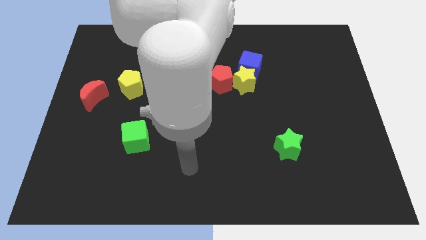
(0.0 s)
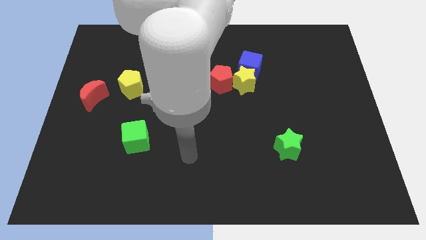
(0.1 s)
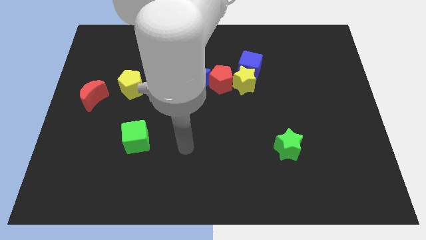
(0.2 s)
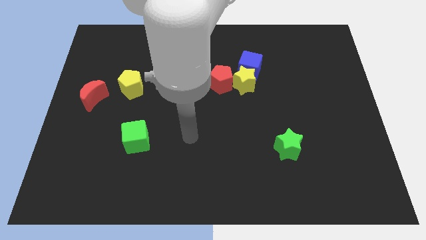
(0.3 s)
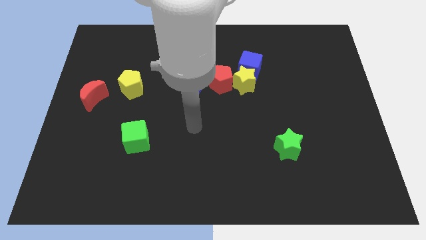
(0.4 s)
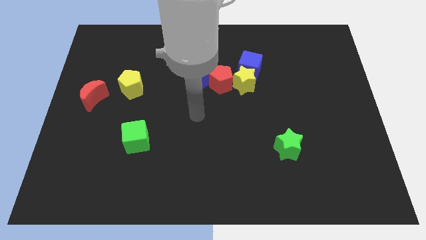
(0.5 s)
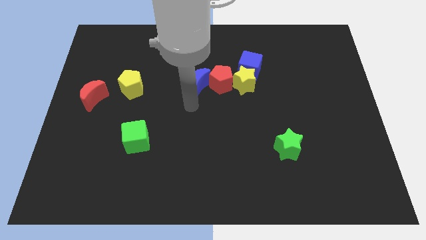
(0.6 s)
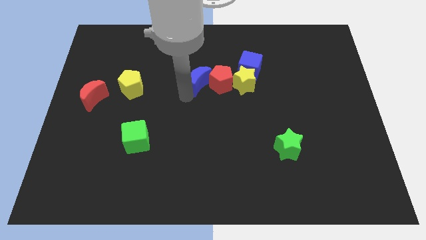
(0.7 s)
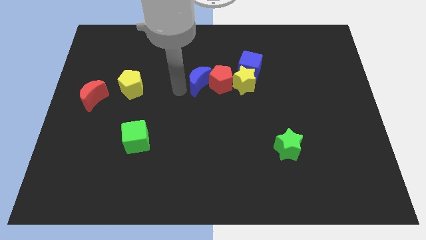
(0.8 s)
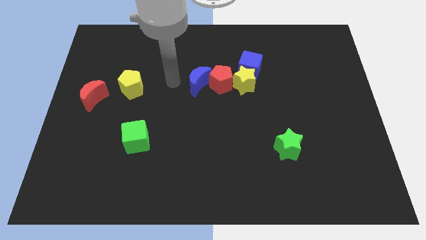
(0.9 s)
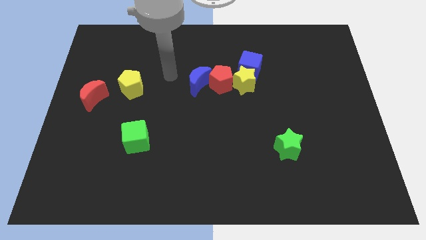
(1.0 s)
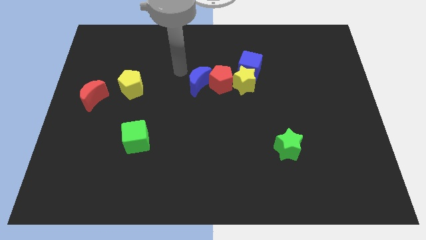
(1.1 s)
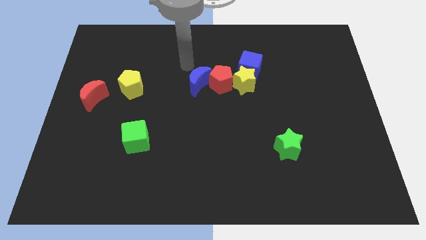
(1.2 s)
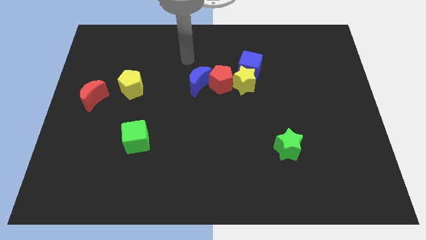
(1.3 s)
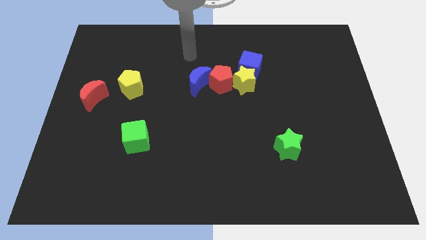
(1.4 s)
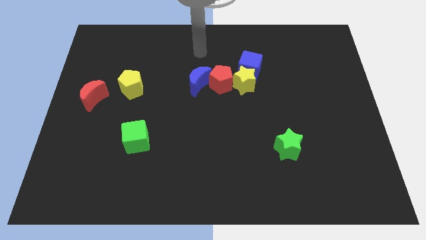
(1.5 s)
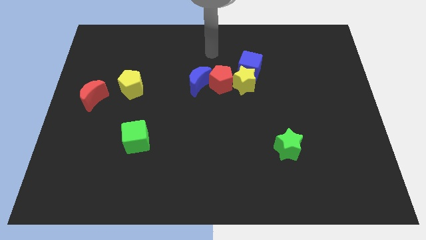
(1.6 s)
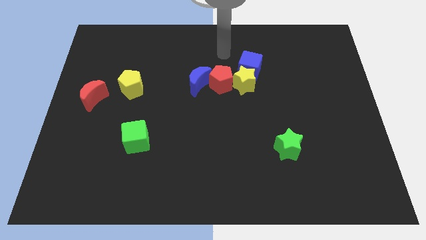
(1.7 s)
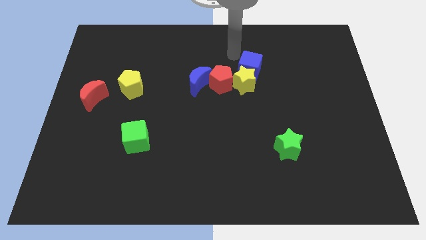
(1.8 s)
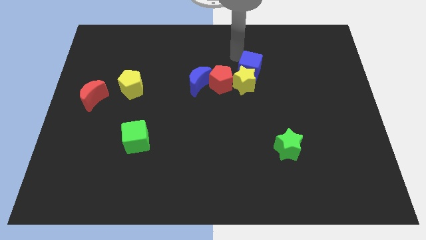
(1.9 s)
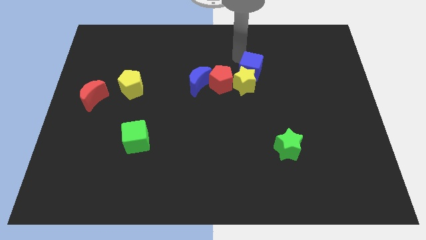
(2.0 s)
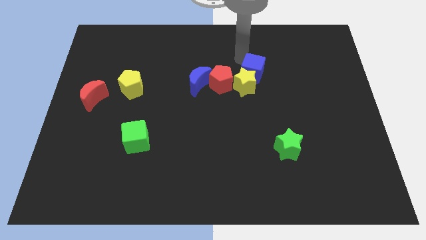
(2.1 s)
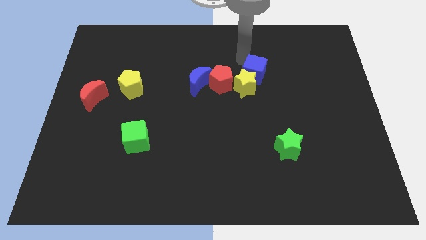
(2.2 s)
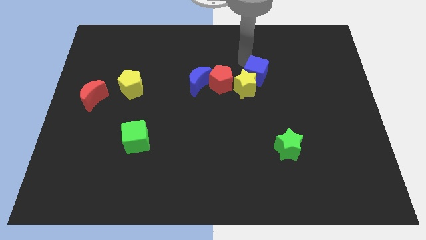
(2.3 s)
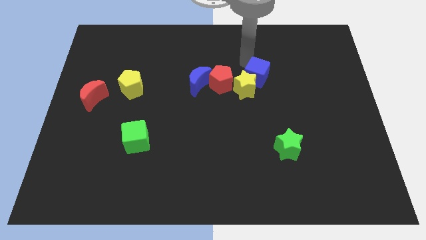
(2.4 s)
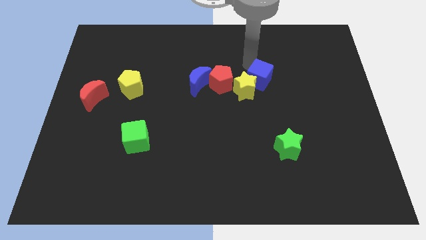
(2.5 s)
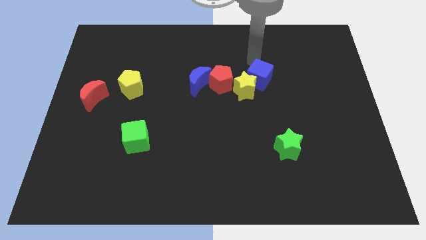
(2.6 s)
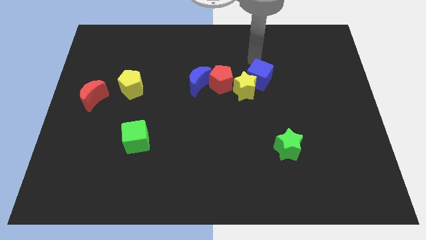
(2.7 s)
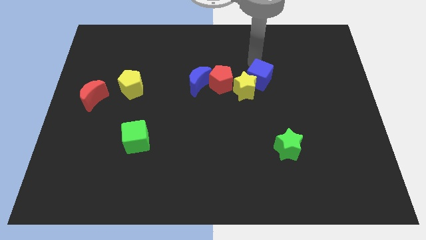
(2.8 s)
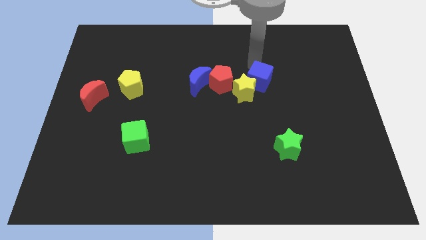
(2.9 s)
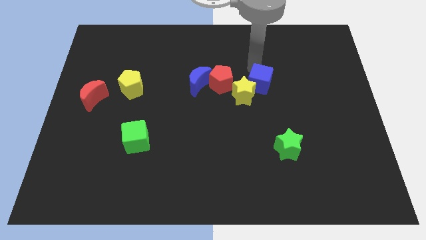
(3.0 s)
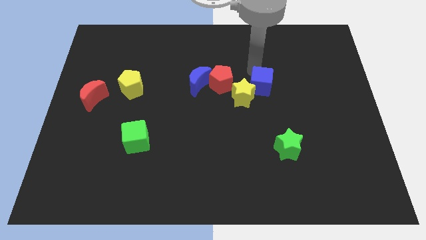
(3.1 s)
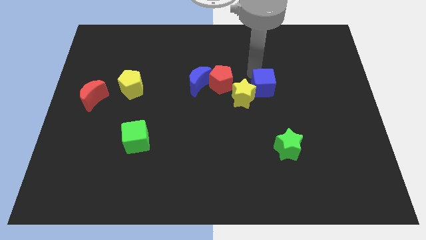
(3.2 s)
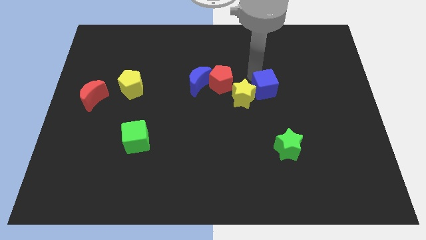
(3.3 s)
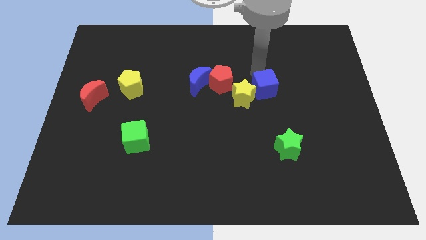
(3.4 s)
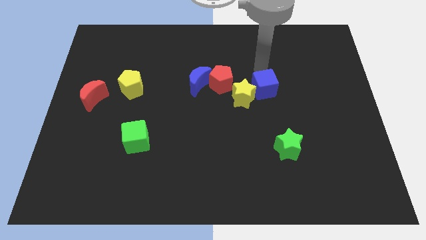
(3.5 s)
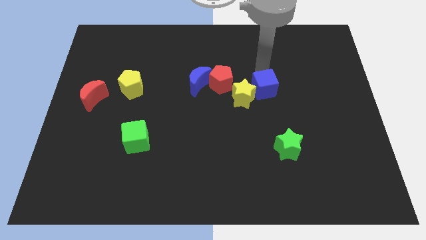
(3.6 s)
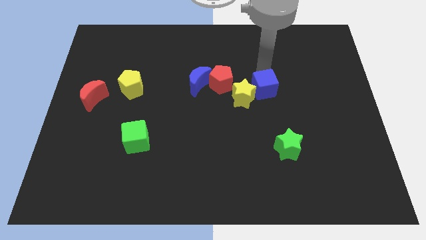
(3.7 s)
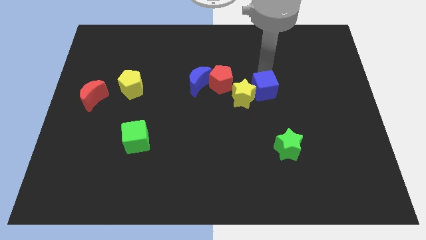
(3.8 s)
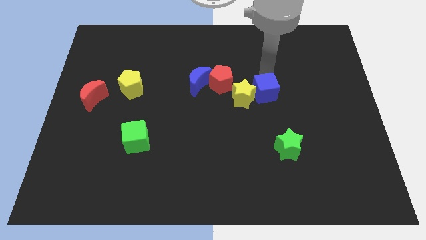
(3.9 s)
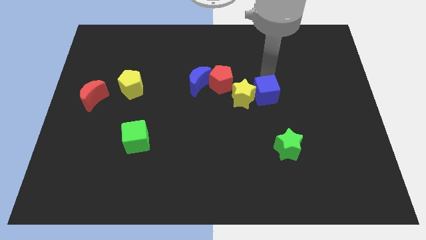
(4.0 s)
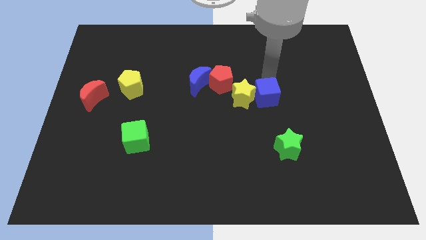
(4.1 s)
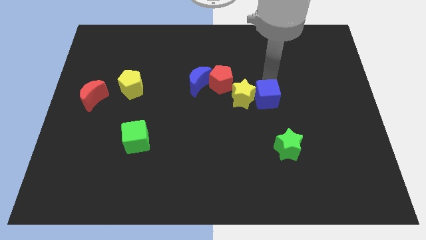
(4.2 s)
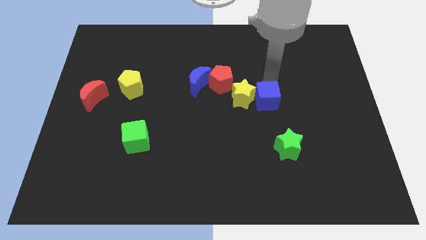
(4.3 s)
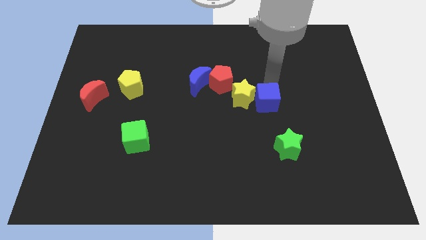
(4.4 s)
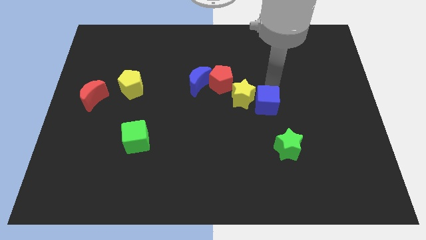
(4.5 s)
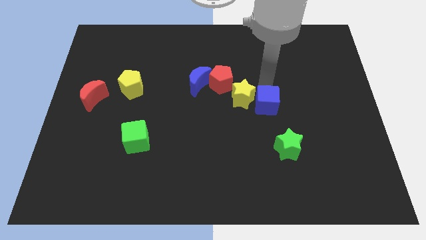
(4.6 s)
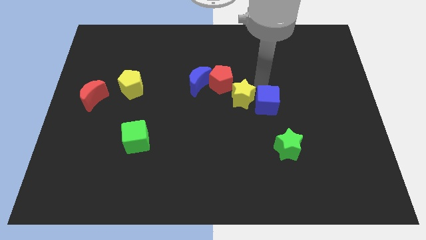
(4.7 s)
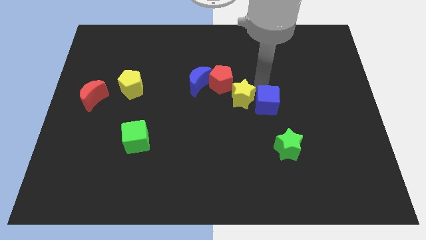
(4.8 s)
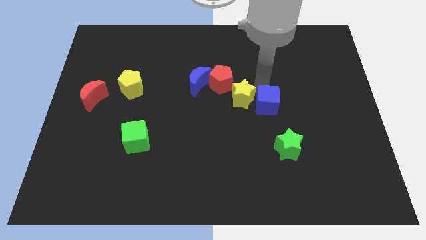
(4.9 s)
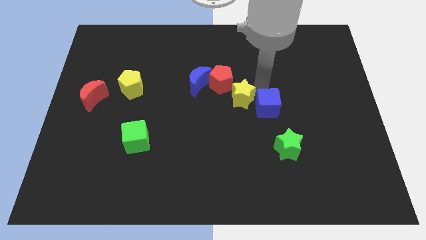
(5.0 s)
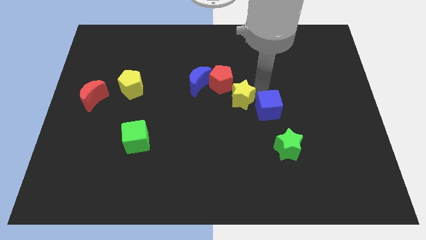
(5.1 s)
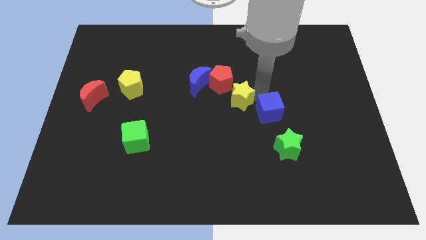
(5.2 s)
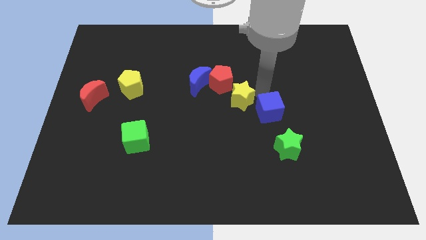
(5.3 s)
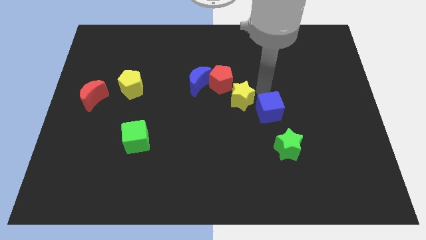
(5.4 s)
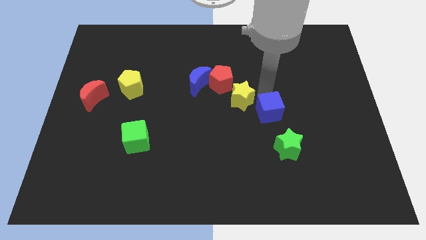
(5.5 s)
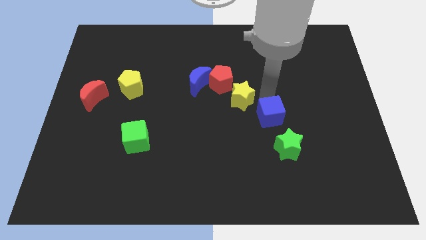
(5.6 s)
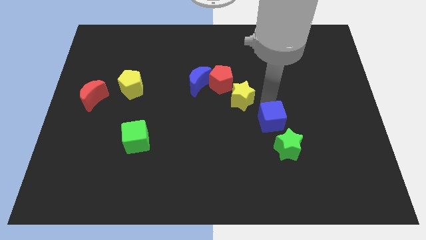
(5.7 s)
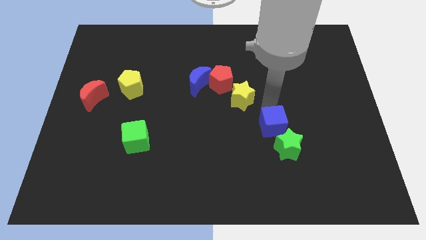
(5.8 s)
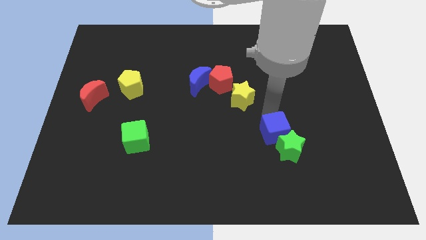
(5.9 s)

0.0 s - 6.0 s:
push the blue cube close to the green star
